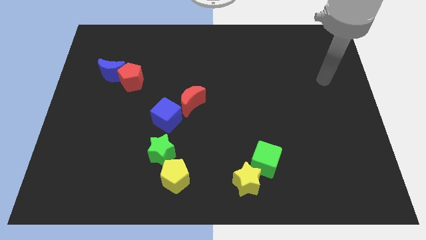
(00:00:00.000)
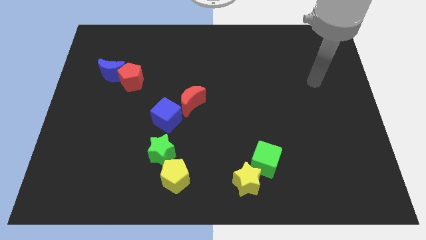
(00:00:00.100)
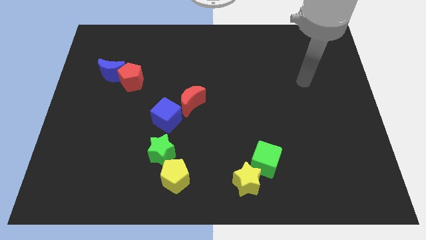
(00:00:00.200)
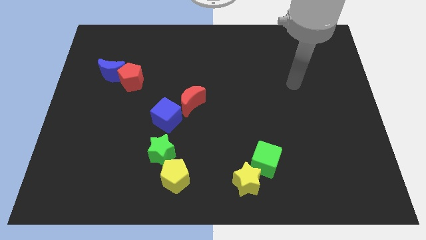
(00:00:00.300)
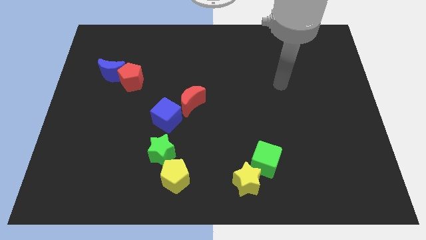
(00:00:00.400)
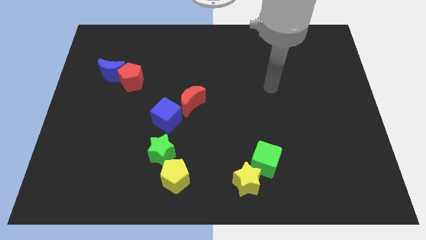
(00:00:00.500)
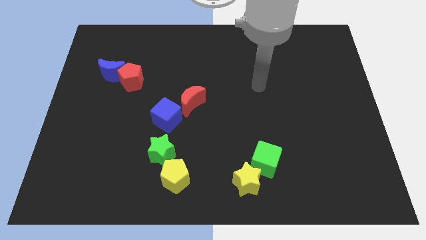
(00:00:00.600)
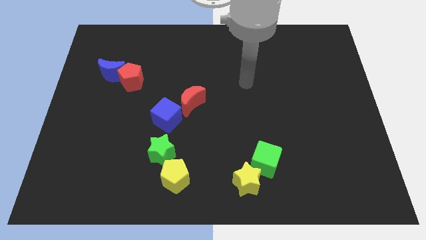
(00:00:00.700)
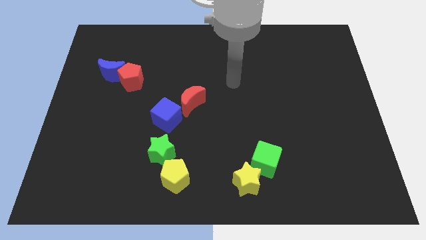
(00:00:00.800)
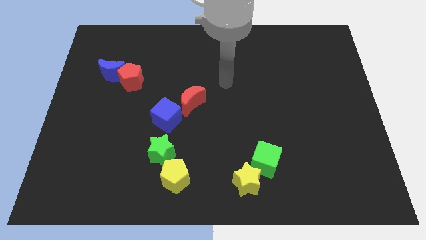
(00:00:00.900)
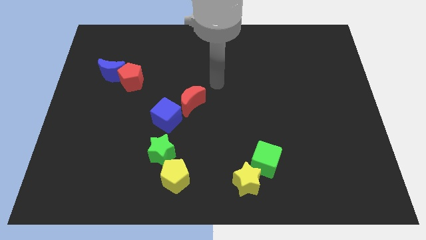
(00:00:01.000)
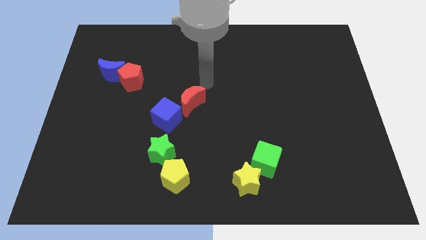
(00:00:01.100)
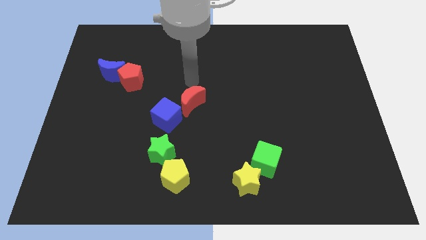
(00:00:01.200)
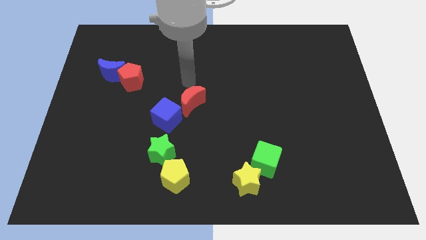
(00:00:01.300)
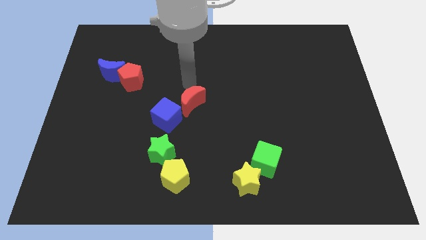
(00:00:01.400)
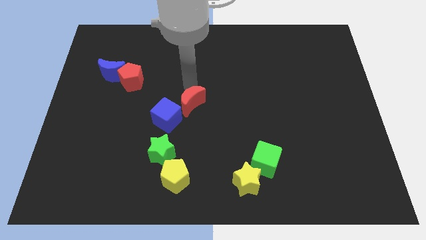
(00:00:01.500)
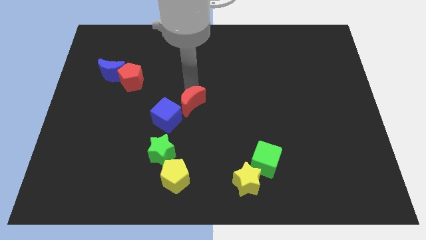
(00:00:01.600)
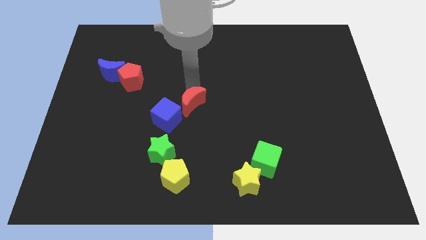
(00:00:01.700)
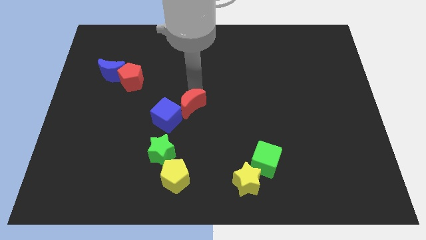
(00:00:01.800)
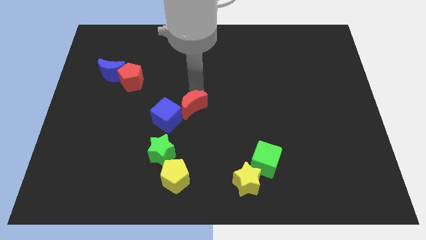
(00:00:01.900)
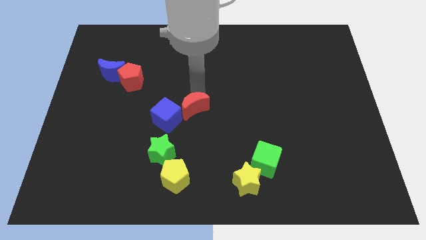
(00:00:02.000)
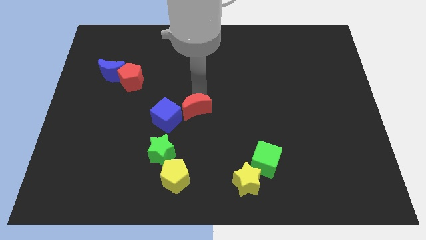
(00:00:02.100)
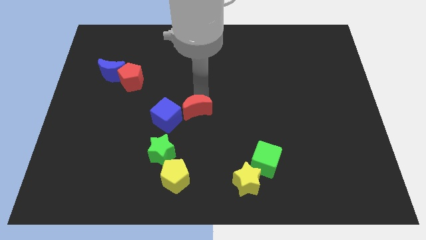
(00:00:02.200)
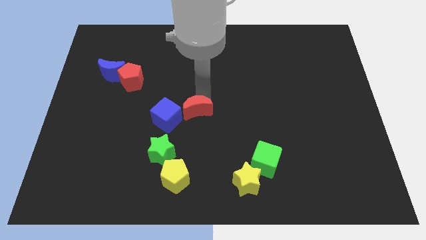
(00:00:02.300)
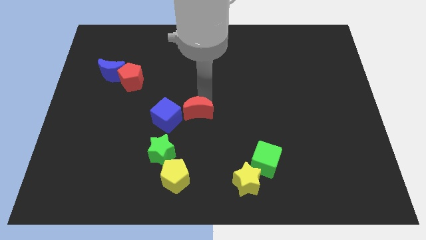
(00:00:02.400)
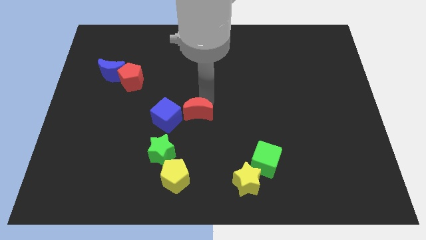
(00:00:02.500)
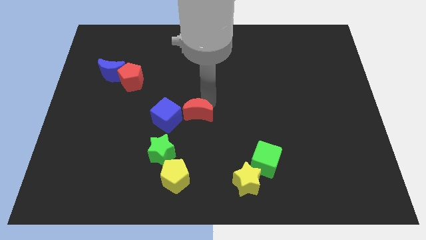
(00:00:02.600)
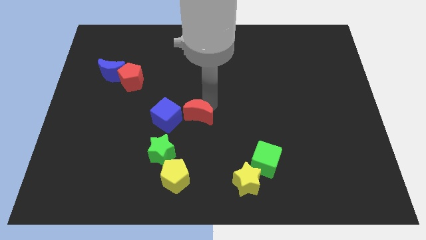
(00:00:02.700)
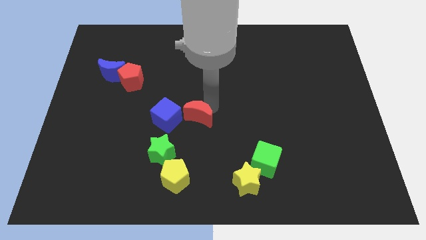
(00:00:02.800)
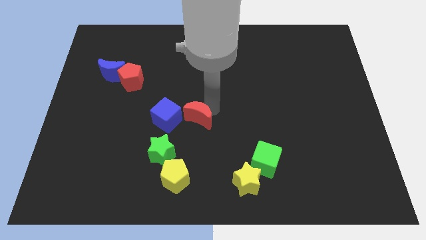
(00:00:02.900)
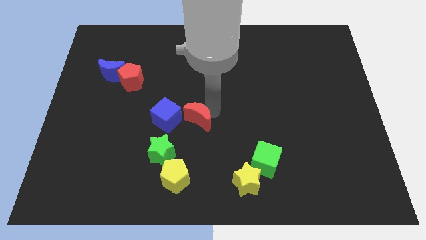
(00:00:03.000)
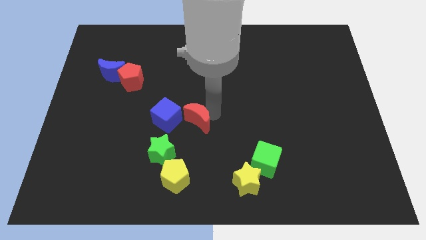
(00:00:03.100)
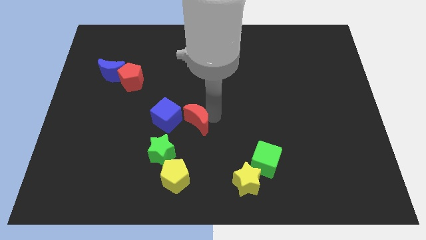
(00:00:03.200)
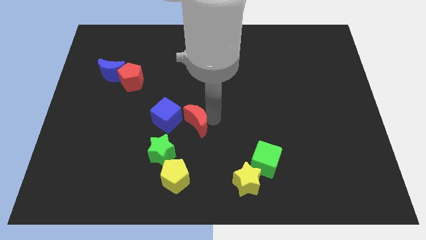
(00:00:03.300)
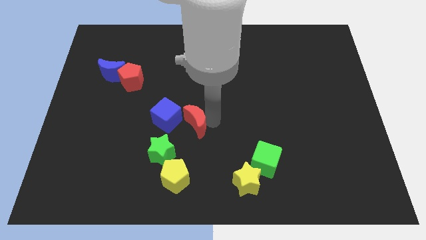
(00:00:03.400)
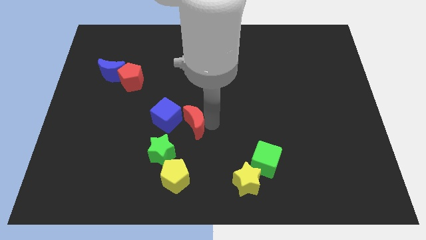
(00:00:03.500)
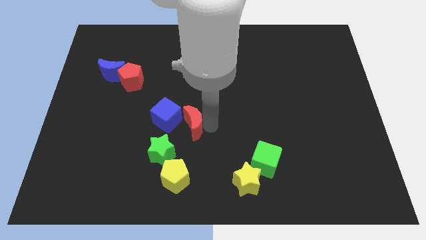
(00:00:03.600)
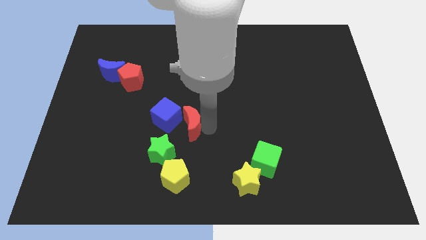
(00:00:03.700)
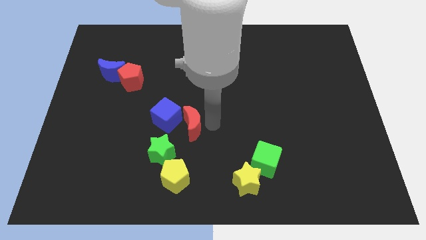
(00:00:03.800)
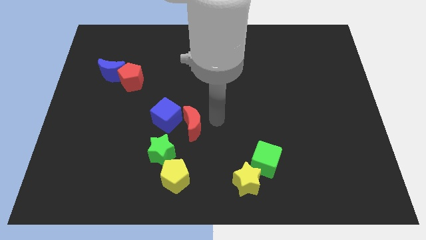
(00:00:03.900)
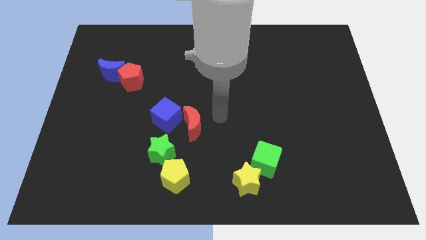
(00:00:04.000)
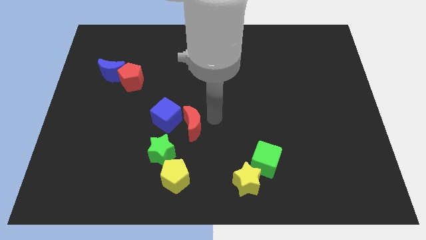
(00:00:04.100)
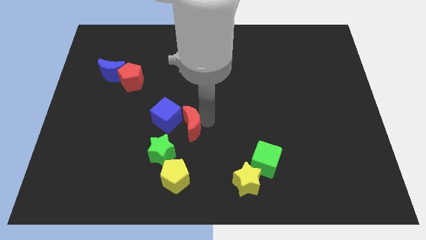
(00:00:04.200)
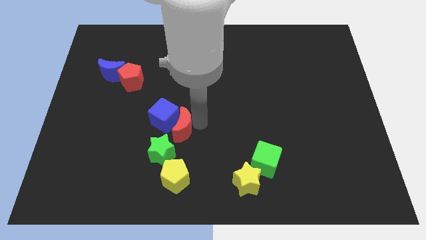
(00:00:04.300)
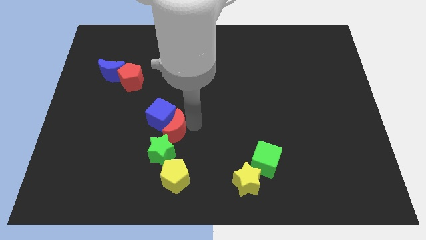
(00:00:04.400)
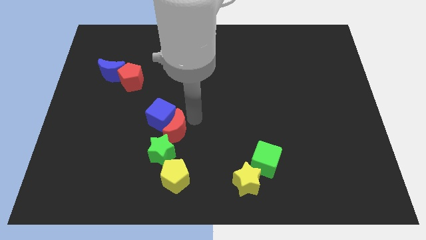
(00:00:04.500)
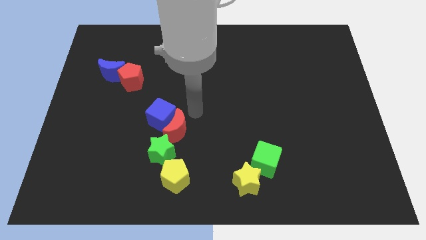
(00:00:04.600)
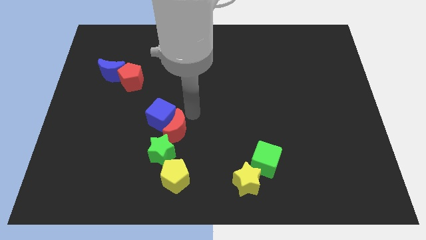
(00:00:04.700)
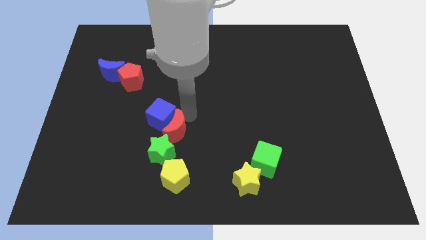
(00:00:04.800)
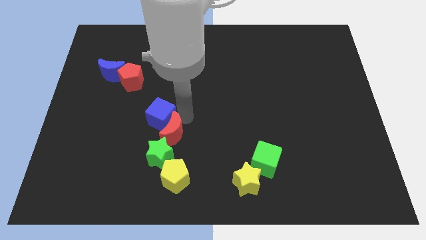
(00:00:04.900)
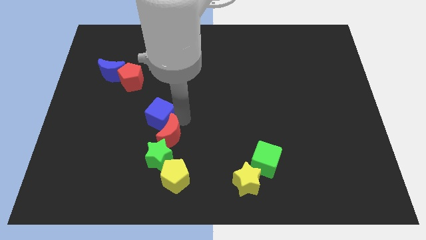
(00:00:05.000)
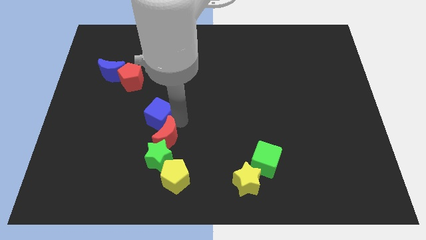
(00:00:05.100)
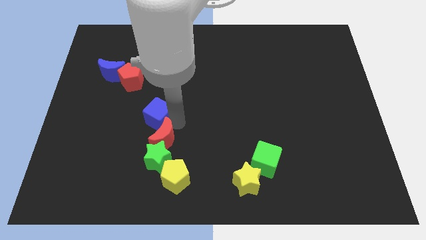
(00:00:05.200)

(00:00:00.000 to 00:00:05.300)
move the red moon to the top left of the yellow pentagon

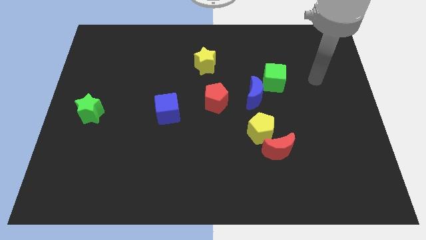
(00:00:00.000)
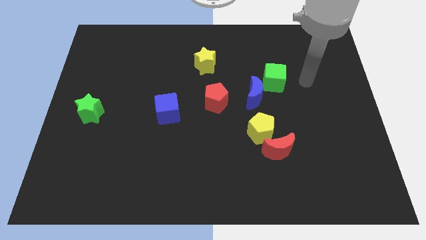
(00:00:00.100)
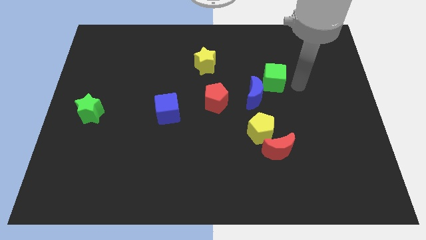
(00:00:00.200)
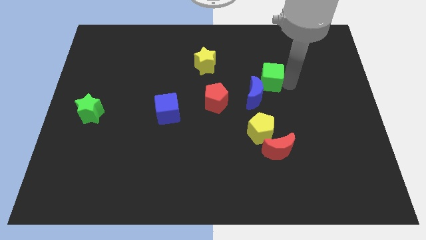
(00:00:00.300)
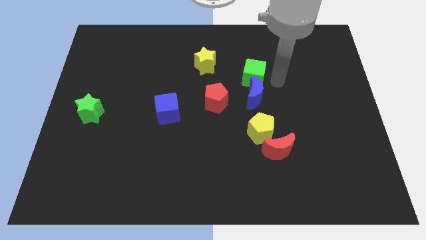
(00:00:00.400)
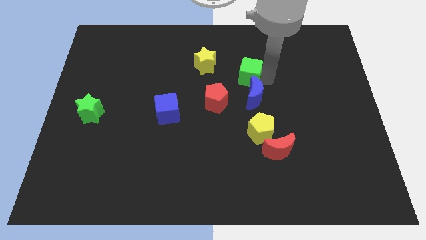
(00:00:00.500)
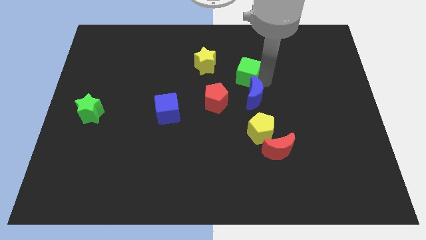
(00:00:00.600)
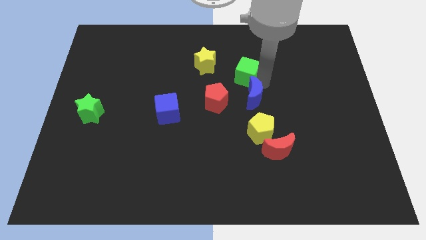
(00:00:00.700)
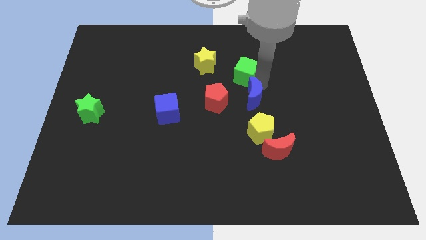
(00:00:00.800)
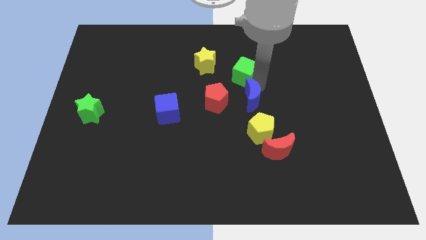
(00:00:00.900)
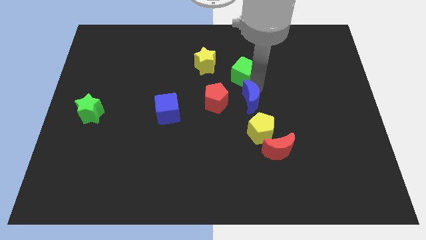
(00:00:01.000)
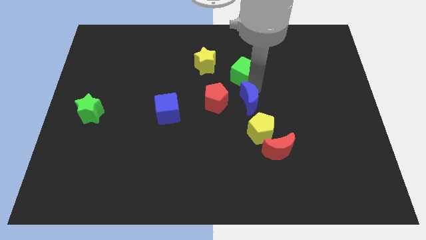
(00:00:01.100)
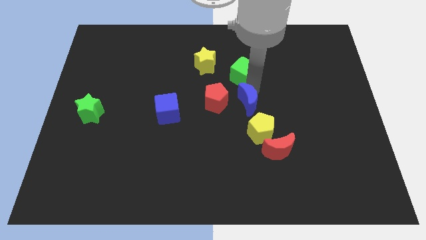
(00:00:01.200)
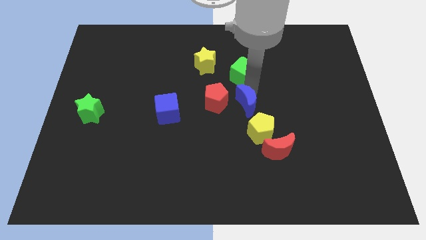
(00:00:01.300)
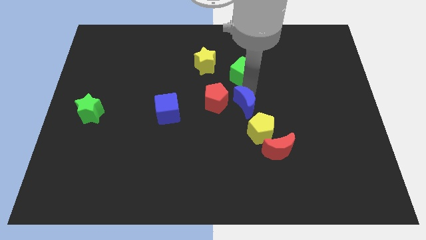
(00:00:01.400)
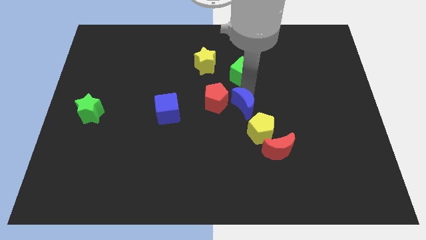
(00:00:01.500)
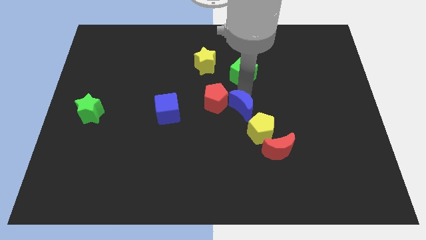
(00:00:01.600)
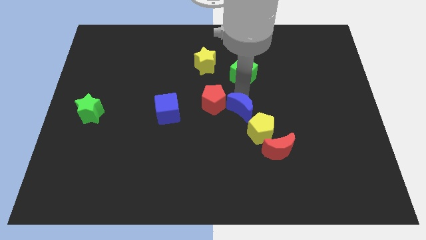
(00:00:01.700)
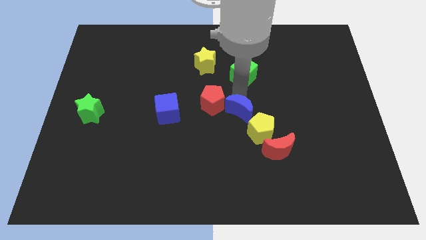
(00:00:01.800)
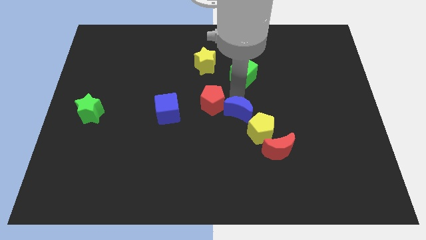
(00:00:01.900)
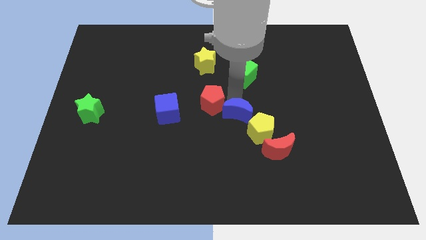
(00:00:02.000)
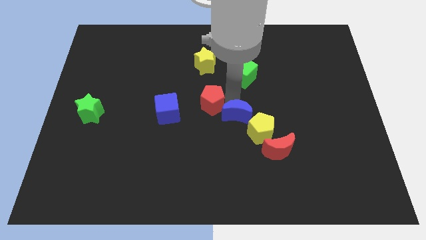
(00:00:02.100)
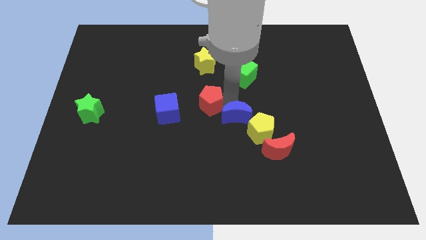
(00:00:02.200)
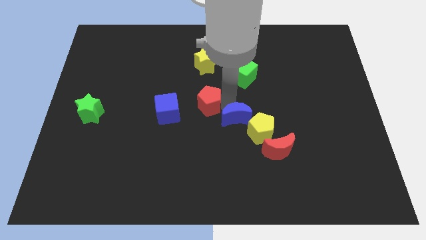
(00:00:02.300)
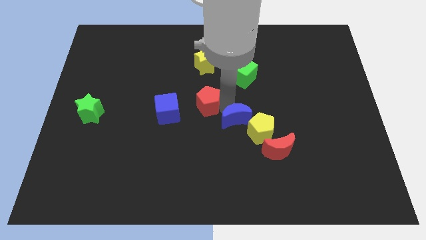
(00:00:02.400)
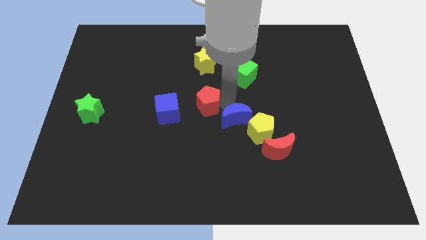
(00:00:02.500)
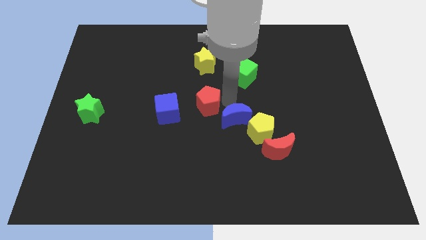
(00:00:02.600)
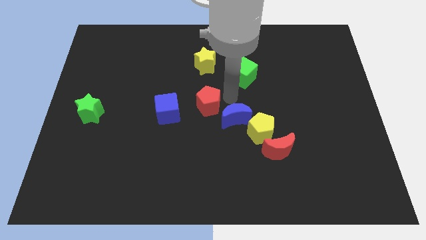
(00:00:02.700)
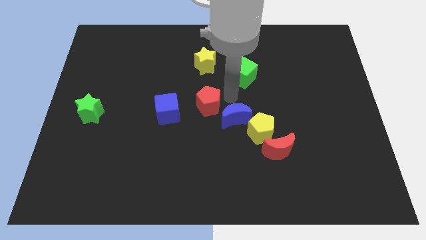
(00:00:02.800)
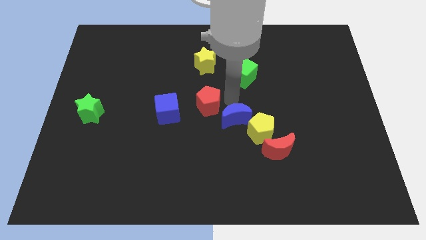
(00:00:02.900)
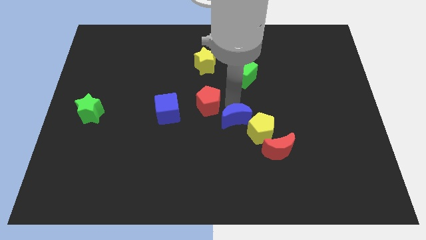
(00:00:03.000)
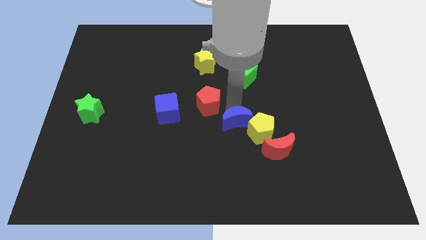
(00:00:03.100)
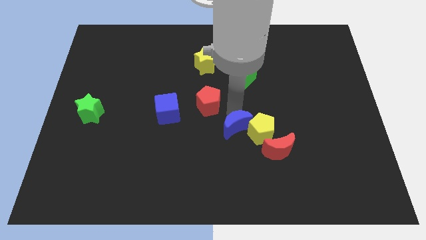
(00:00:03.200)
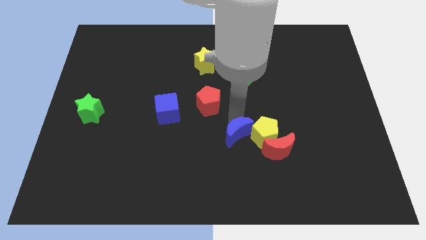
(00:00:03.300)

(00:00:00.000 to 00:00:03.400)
push the blue moon to the left of the red moon
